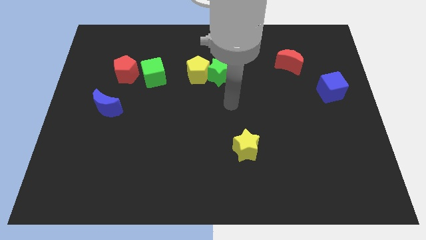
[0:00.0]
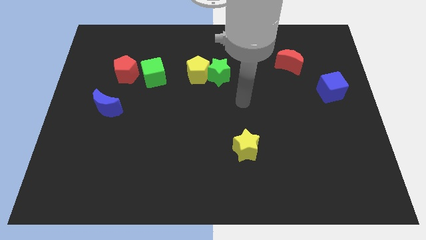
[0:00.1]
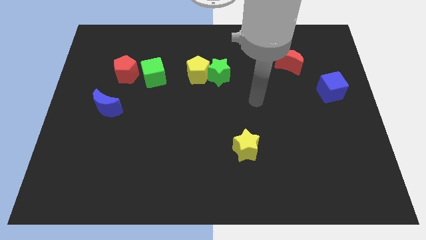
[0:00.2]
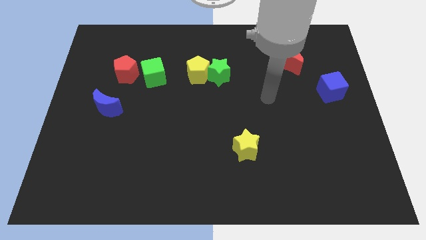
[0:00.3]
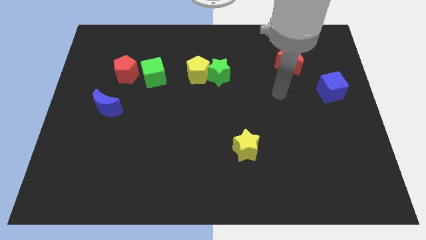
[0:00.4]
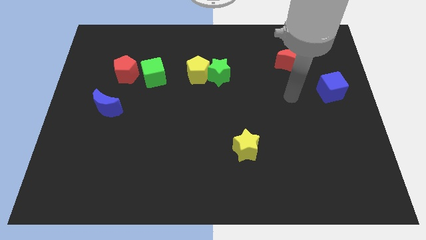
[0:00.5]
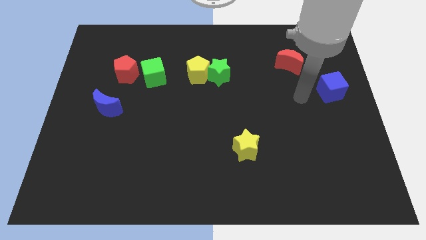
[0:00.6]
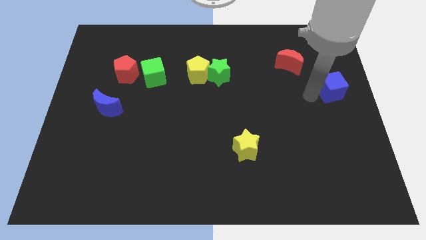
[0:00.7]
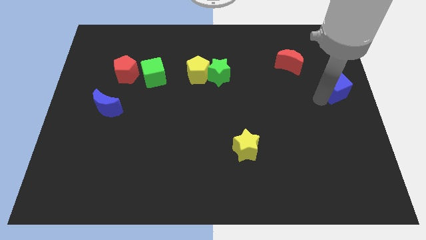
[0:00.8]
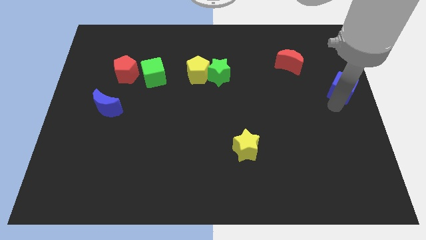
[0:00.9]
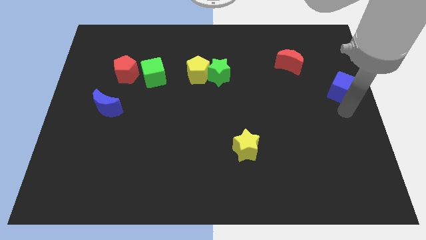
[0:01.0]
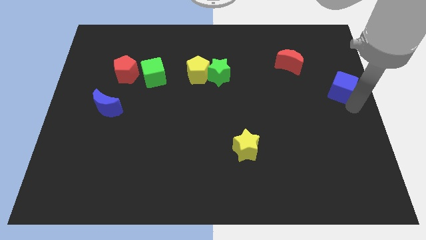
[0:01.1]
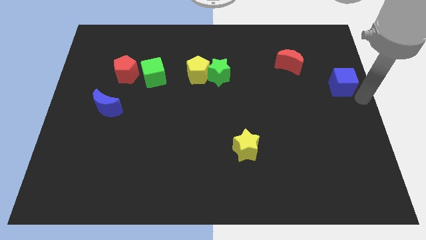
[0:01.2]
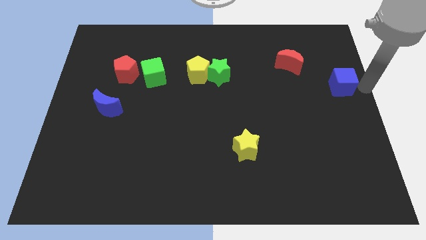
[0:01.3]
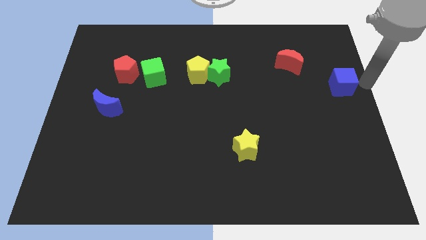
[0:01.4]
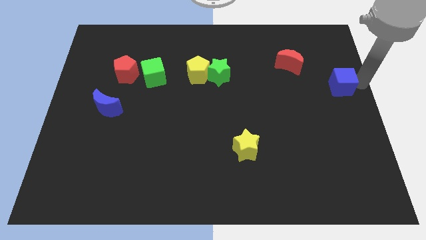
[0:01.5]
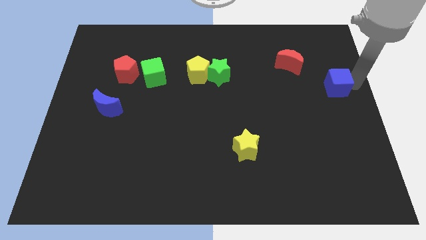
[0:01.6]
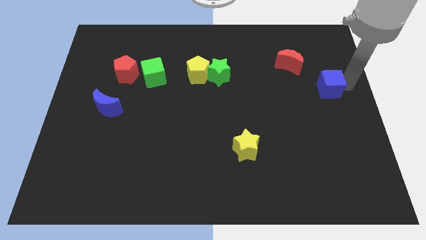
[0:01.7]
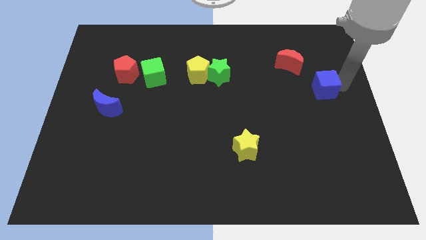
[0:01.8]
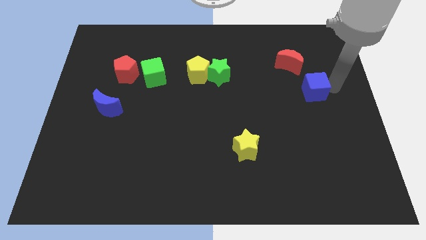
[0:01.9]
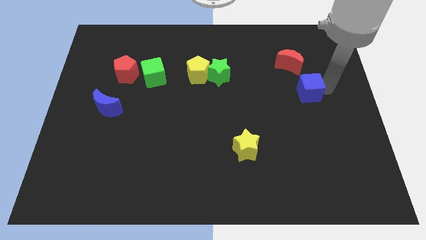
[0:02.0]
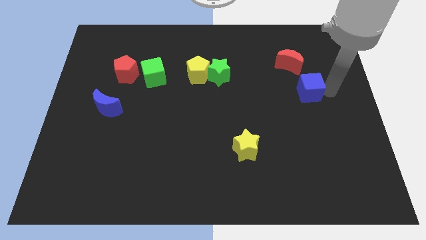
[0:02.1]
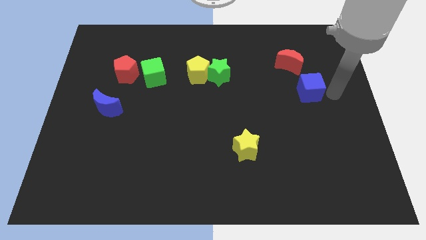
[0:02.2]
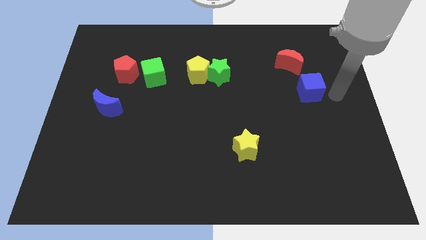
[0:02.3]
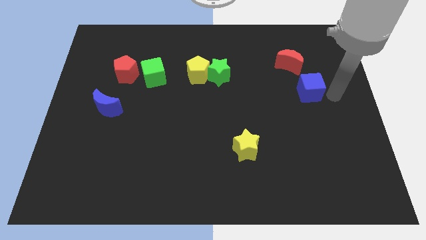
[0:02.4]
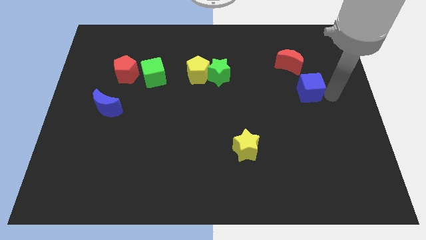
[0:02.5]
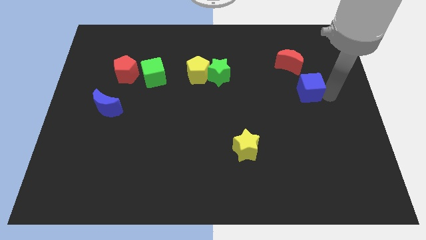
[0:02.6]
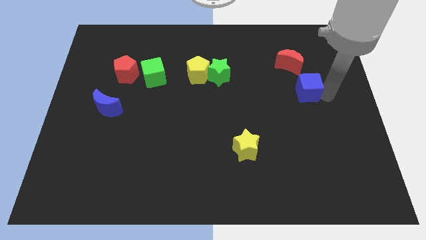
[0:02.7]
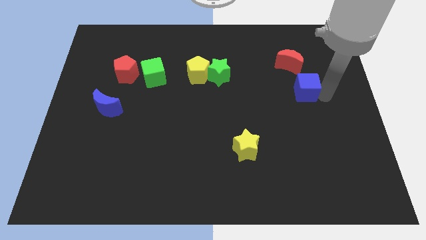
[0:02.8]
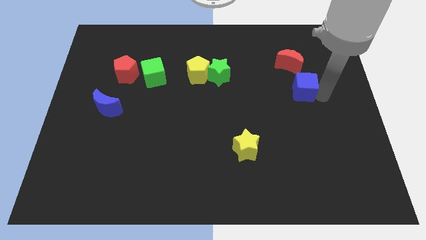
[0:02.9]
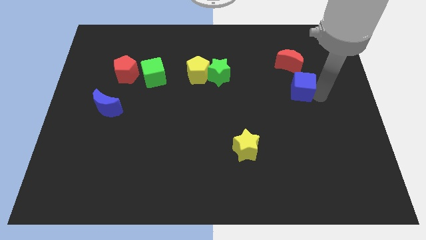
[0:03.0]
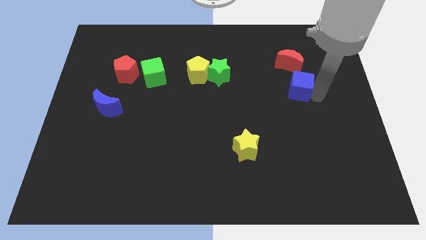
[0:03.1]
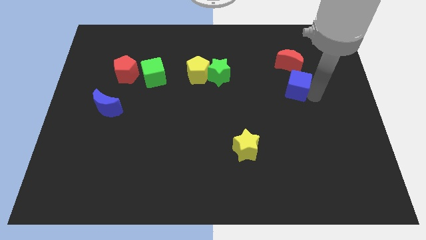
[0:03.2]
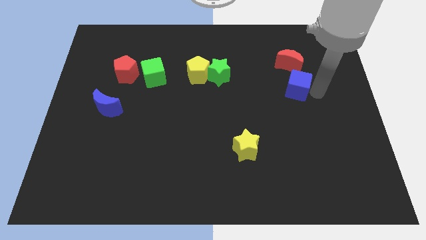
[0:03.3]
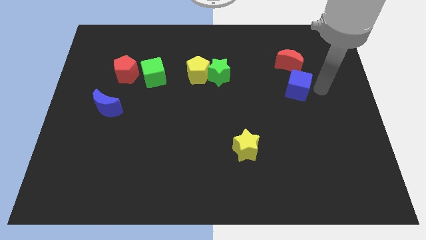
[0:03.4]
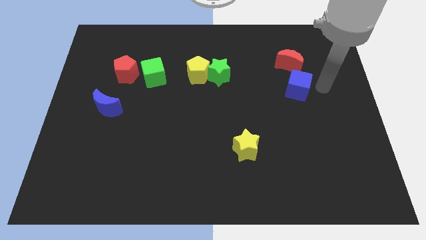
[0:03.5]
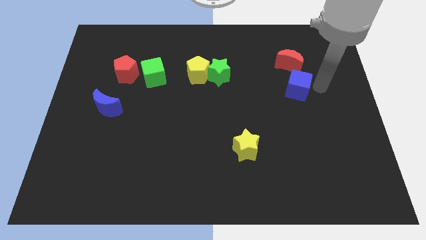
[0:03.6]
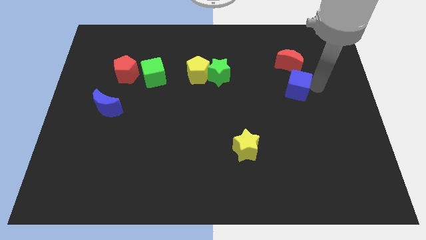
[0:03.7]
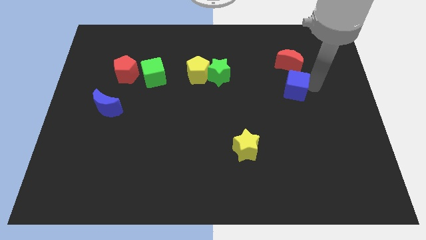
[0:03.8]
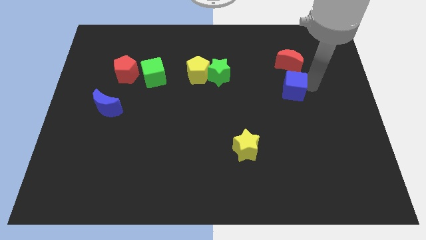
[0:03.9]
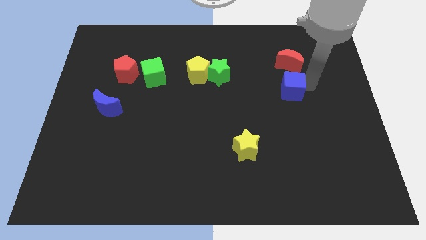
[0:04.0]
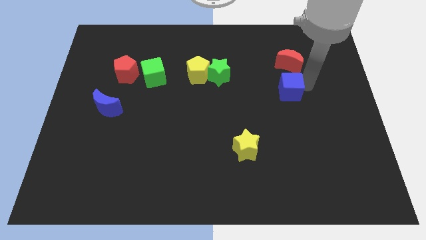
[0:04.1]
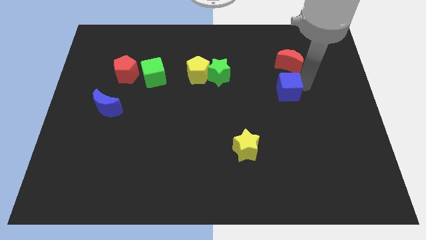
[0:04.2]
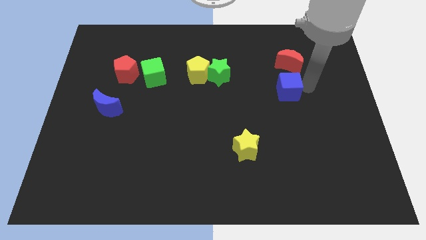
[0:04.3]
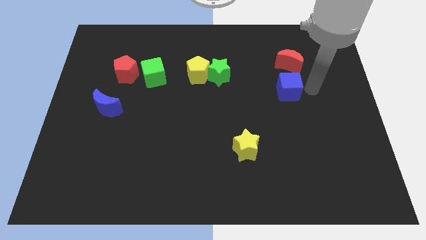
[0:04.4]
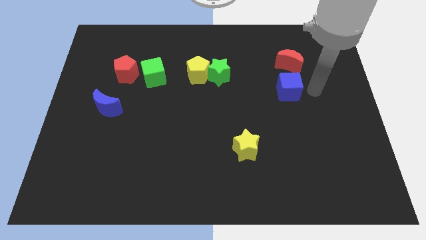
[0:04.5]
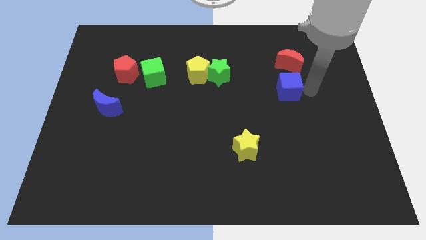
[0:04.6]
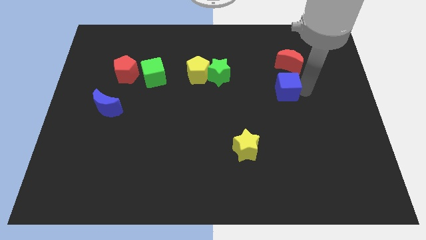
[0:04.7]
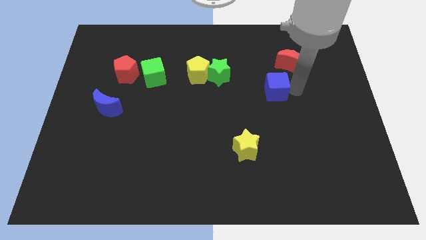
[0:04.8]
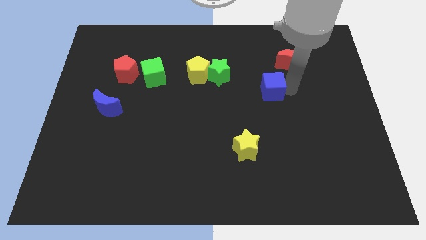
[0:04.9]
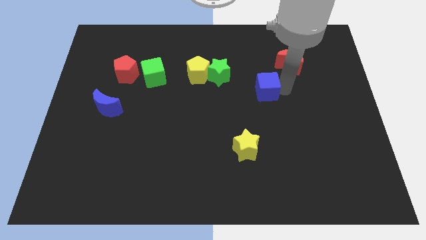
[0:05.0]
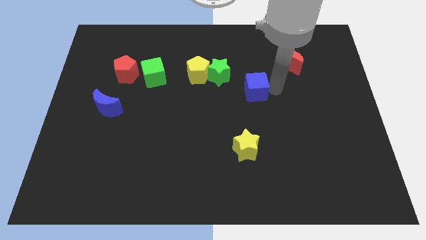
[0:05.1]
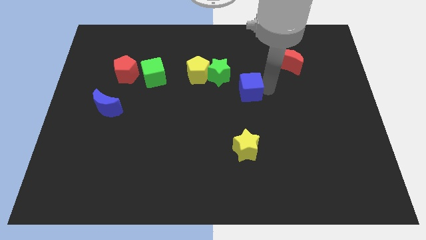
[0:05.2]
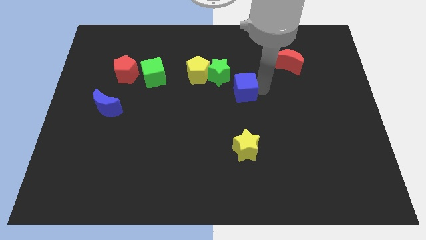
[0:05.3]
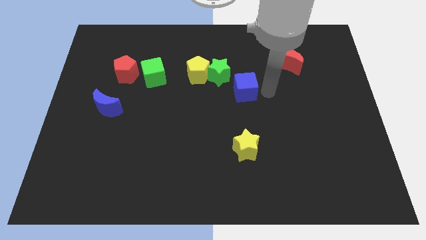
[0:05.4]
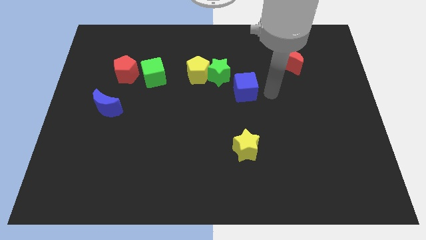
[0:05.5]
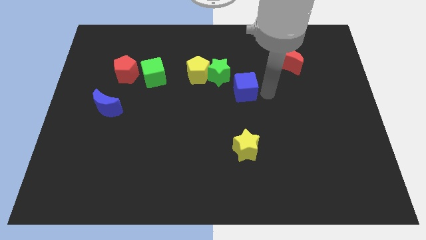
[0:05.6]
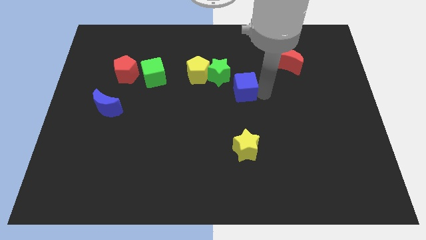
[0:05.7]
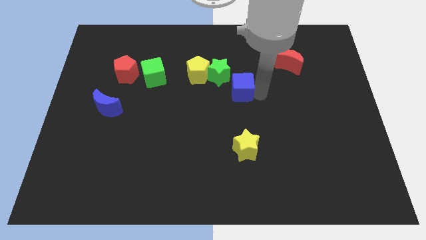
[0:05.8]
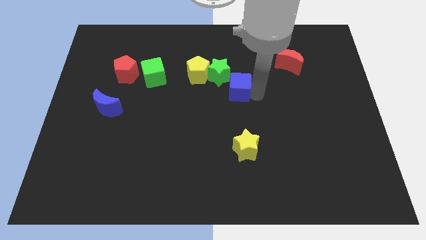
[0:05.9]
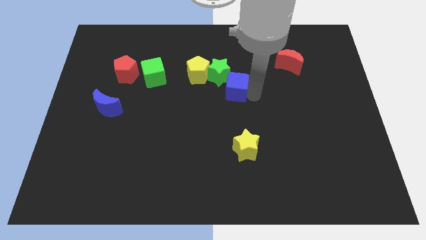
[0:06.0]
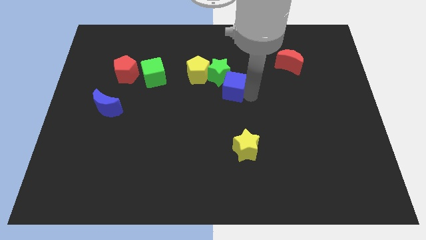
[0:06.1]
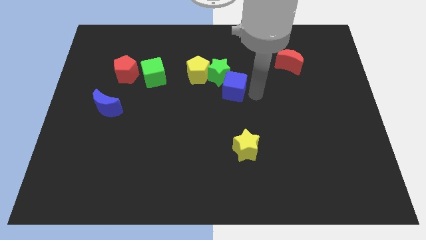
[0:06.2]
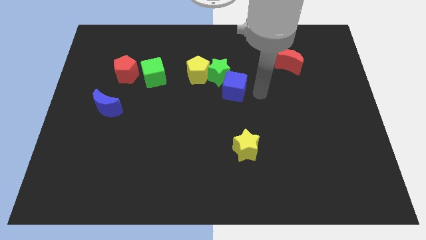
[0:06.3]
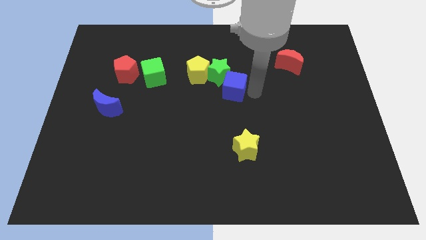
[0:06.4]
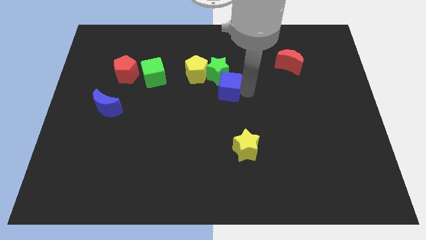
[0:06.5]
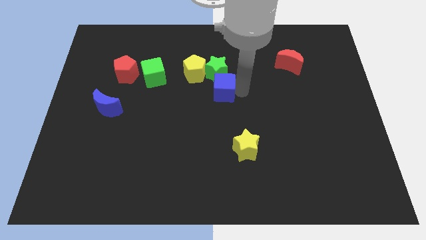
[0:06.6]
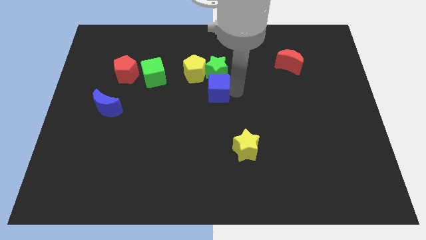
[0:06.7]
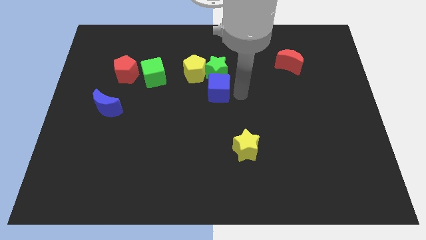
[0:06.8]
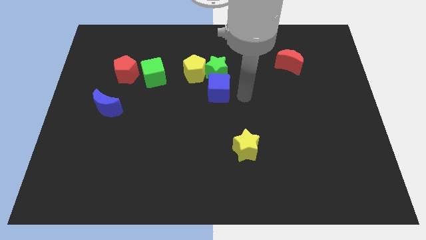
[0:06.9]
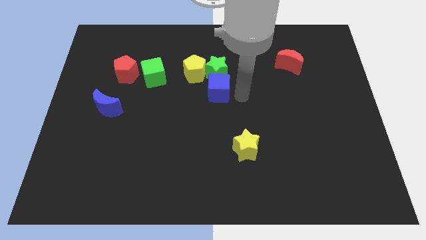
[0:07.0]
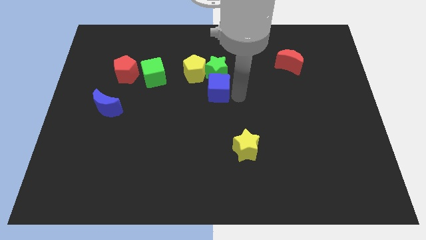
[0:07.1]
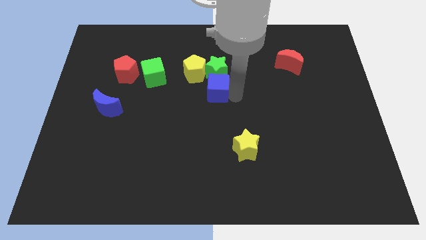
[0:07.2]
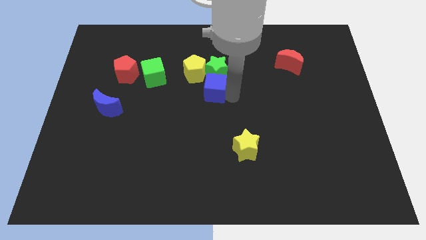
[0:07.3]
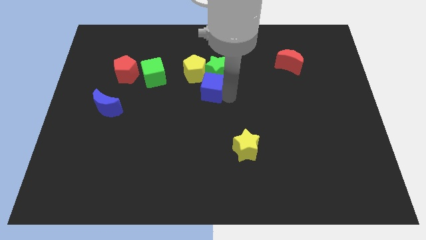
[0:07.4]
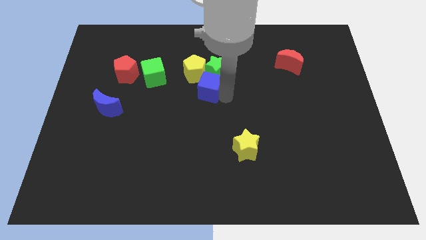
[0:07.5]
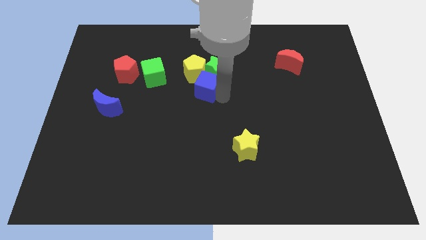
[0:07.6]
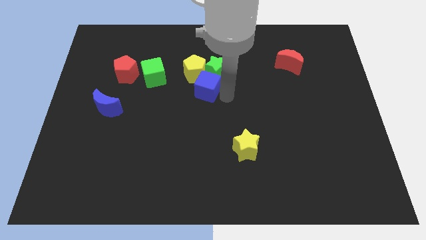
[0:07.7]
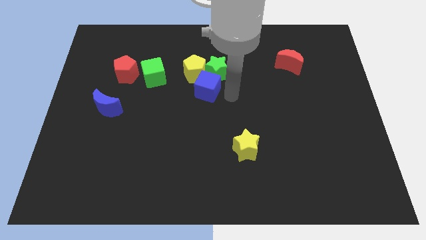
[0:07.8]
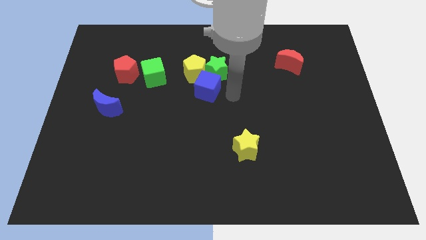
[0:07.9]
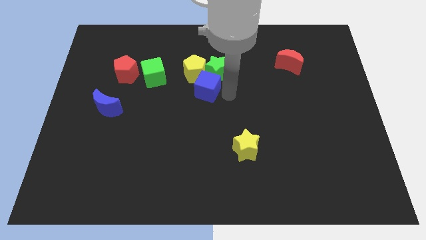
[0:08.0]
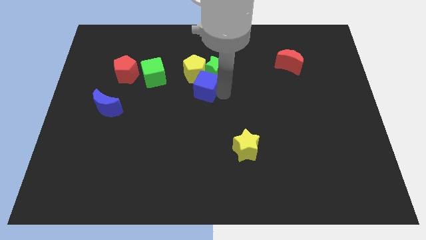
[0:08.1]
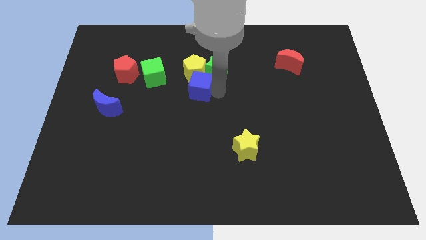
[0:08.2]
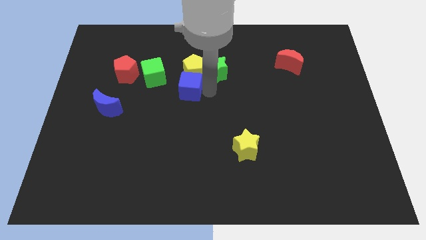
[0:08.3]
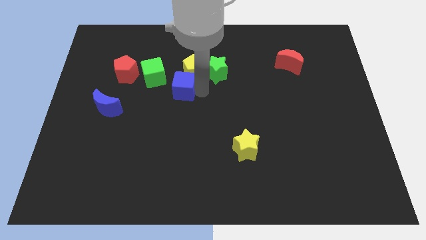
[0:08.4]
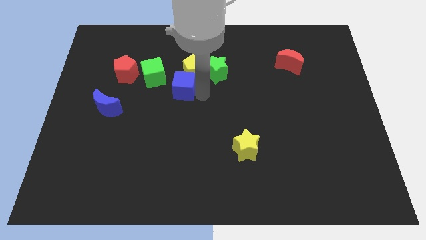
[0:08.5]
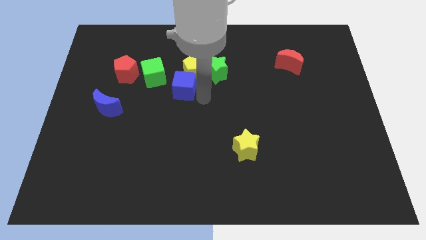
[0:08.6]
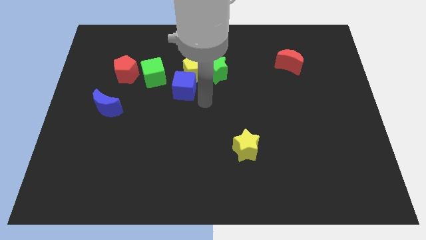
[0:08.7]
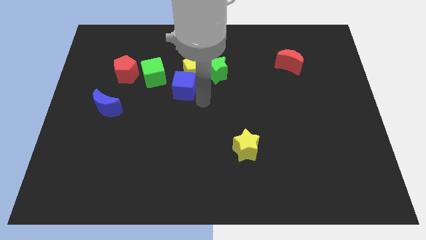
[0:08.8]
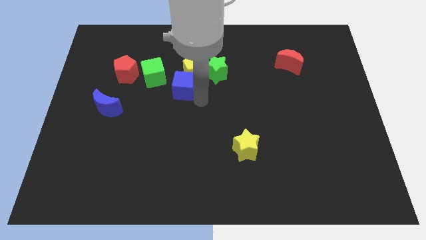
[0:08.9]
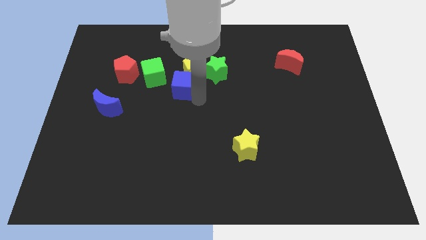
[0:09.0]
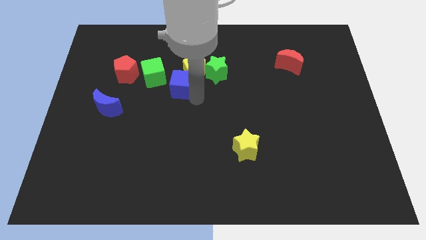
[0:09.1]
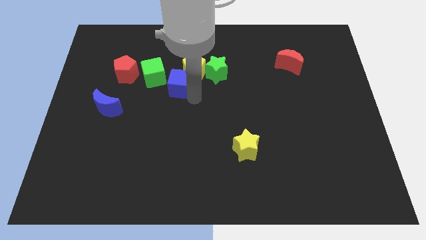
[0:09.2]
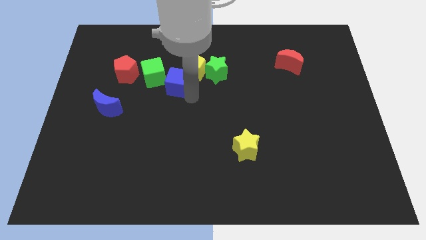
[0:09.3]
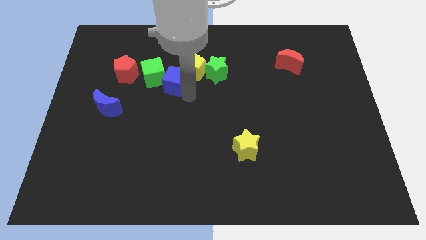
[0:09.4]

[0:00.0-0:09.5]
slide the blue cube close to the green cube
